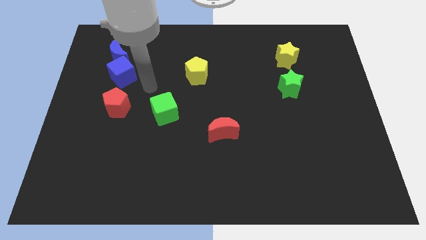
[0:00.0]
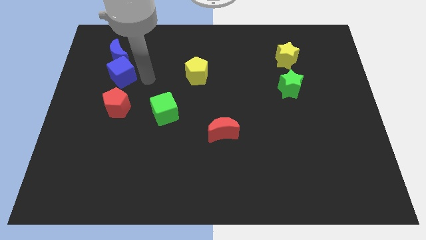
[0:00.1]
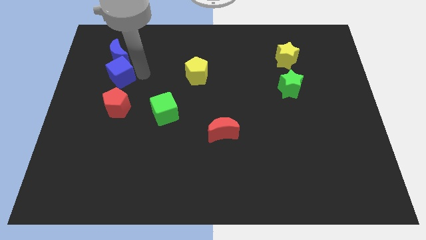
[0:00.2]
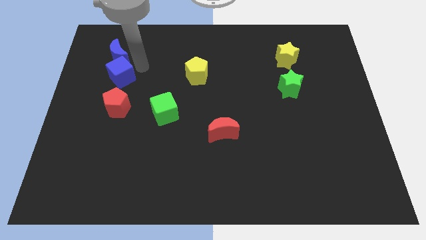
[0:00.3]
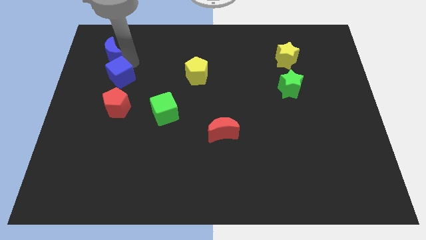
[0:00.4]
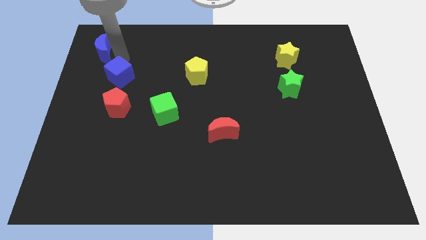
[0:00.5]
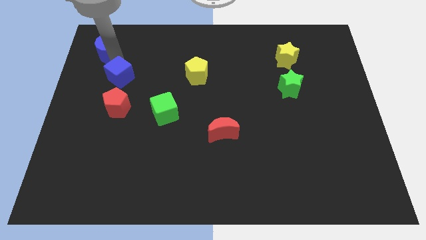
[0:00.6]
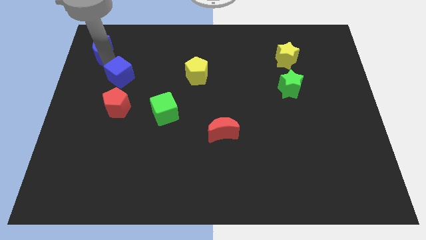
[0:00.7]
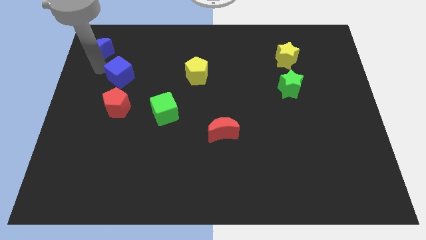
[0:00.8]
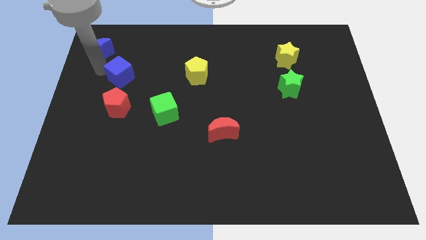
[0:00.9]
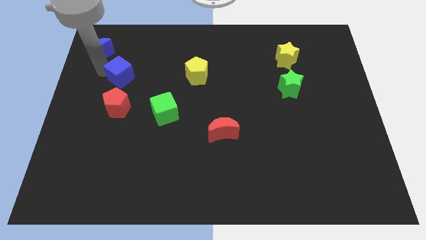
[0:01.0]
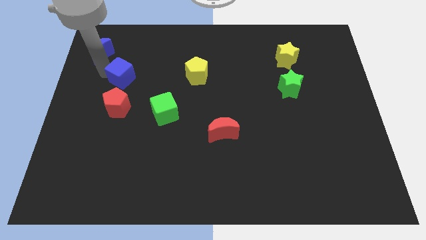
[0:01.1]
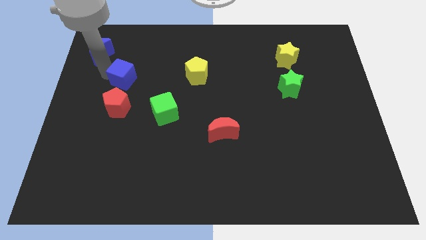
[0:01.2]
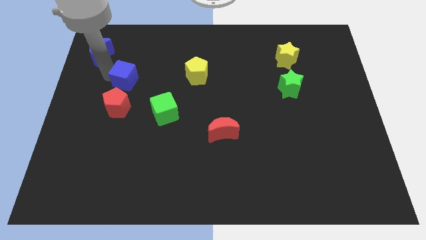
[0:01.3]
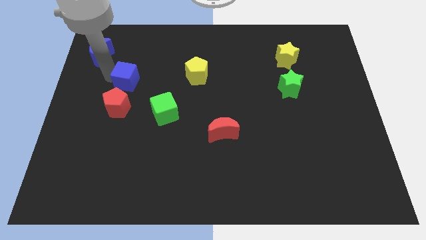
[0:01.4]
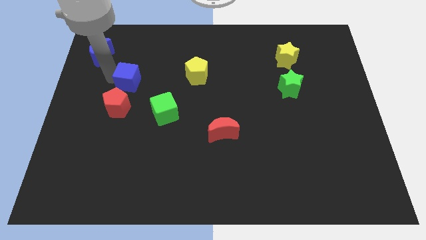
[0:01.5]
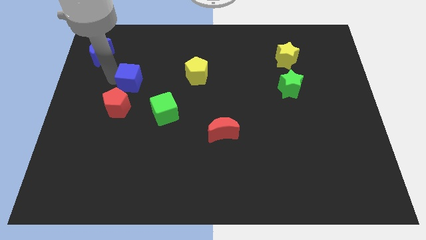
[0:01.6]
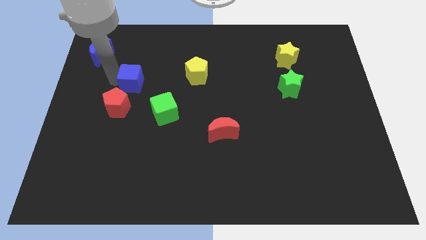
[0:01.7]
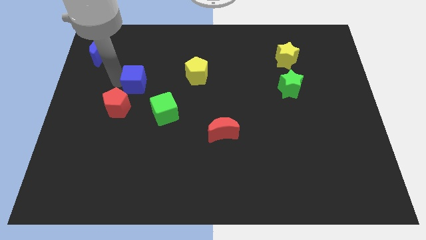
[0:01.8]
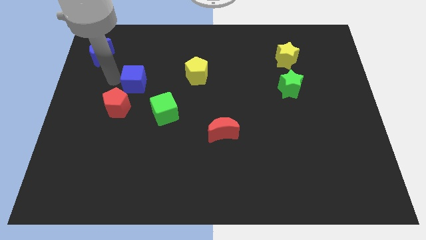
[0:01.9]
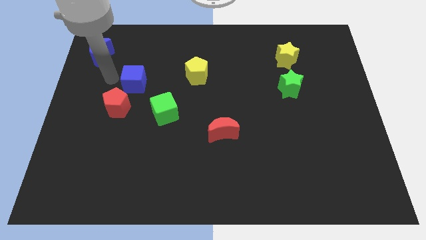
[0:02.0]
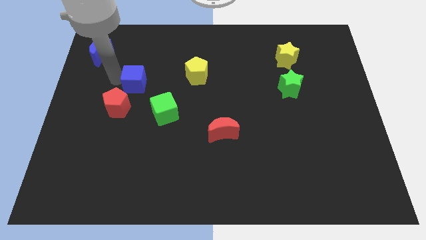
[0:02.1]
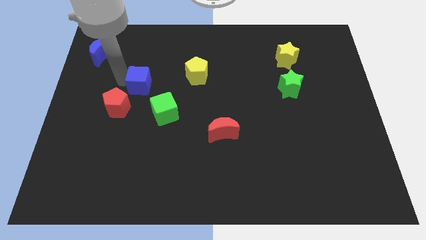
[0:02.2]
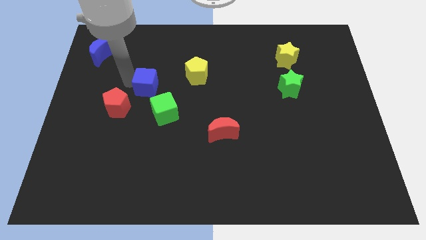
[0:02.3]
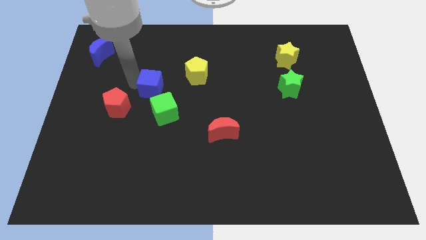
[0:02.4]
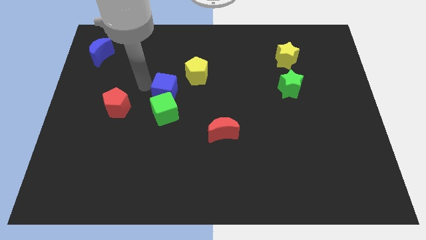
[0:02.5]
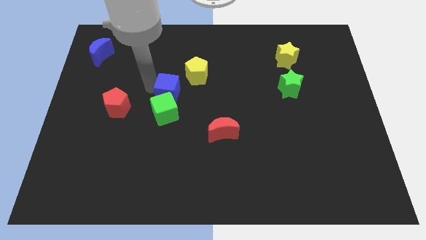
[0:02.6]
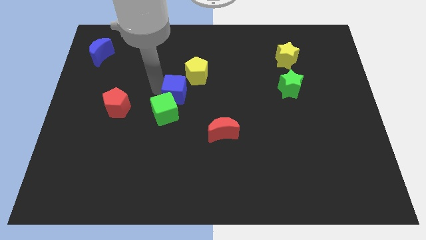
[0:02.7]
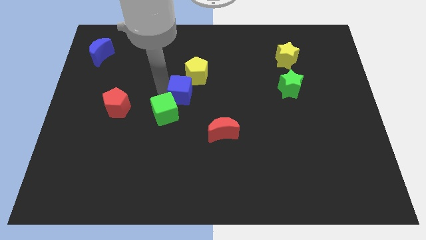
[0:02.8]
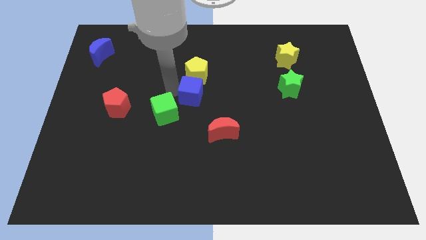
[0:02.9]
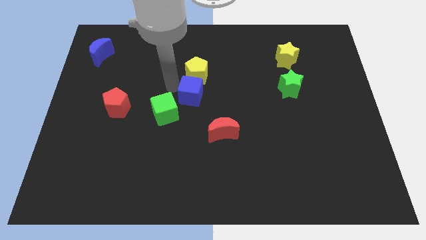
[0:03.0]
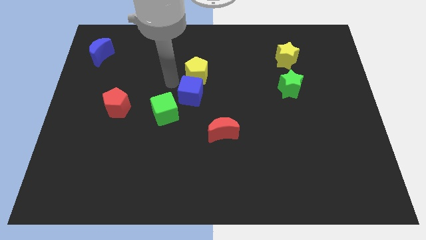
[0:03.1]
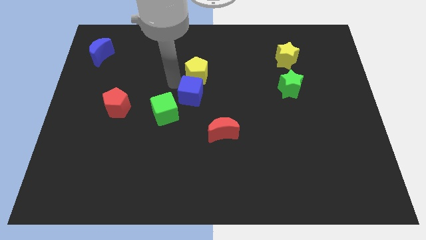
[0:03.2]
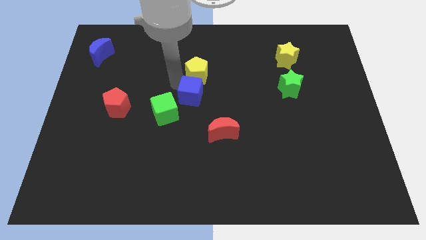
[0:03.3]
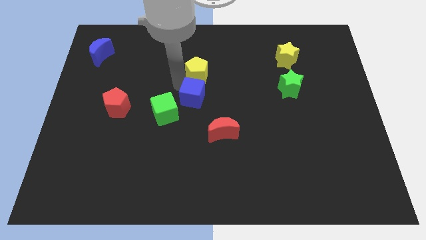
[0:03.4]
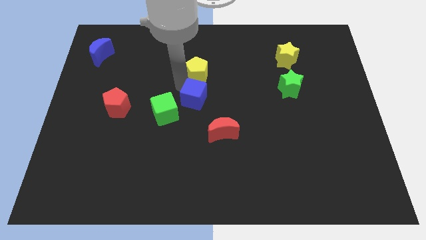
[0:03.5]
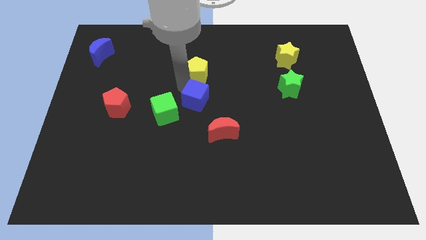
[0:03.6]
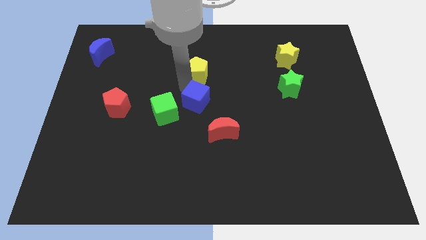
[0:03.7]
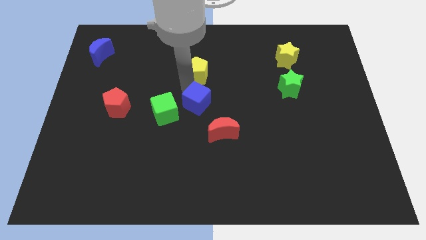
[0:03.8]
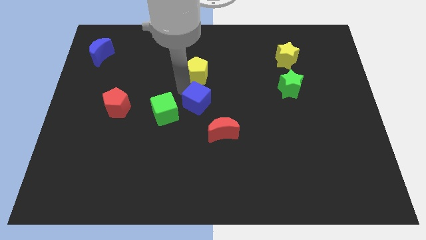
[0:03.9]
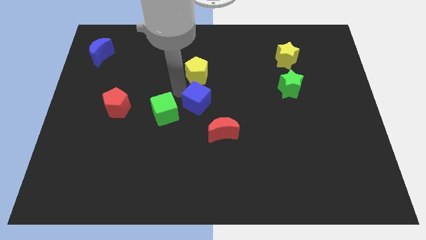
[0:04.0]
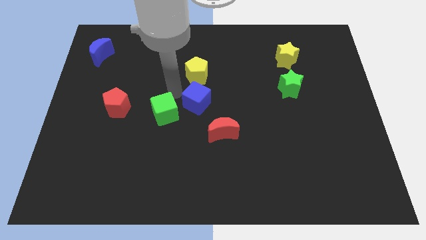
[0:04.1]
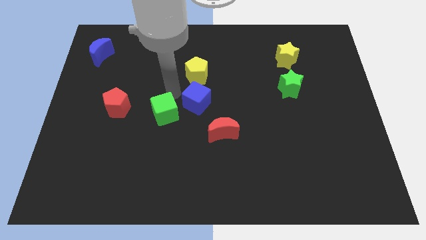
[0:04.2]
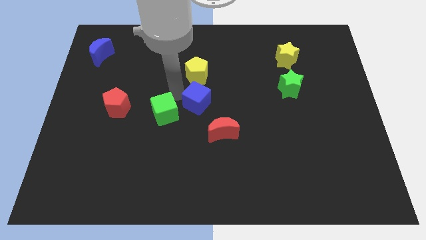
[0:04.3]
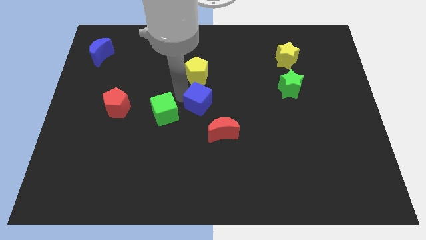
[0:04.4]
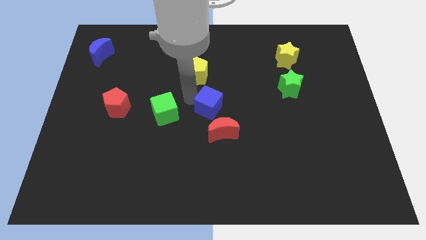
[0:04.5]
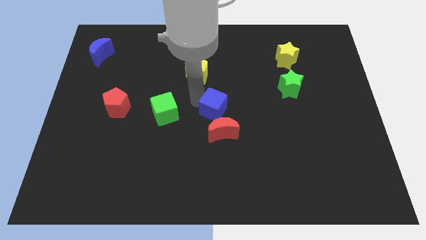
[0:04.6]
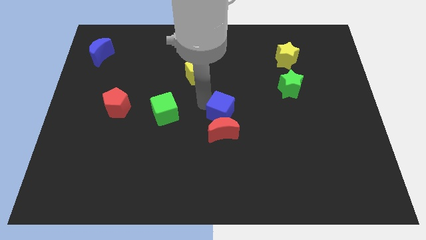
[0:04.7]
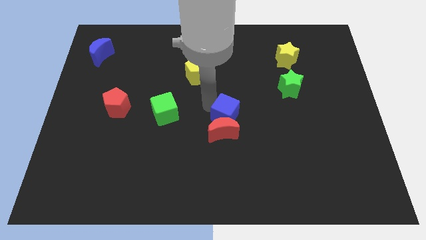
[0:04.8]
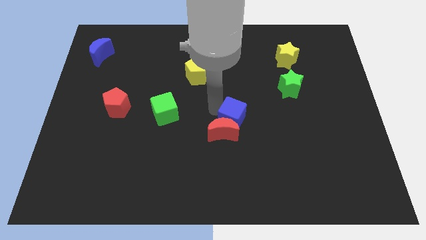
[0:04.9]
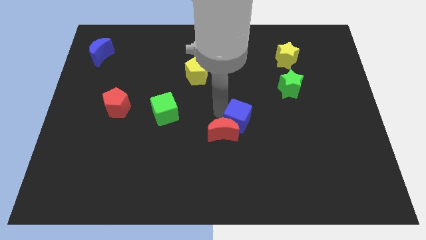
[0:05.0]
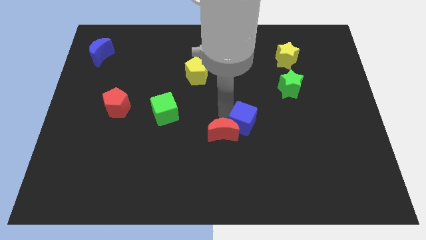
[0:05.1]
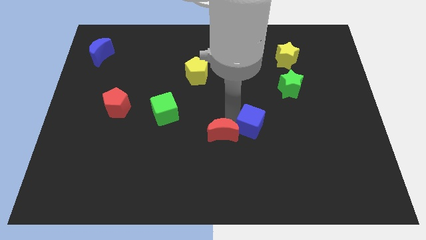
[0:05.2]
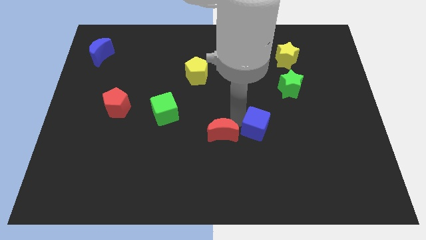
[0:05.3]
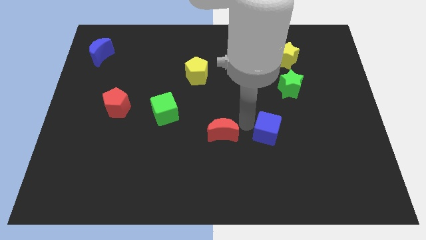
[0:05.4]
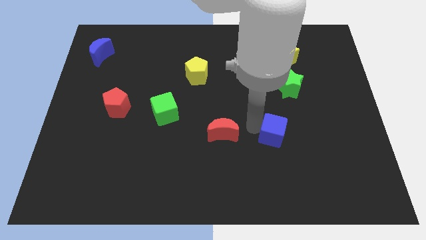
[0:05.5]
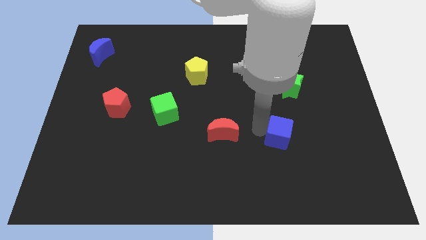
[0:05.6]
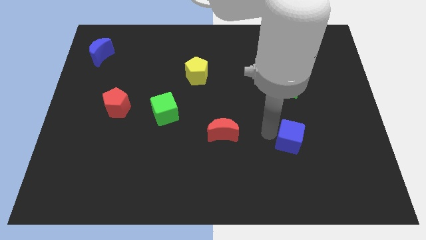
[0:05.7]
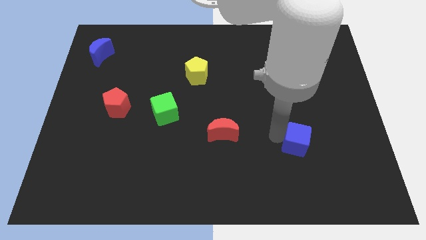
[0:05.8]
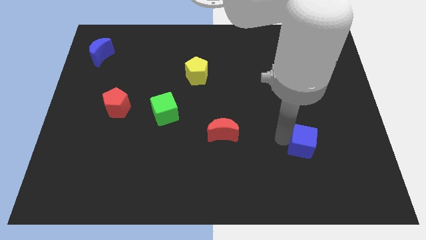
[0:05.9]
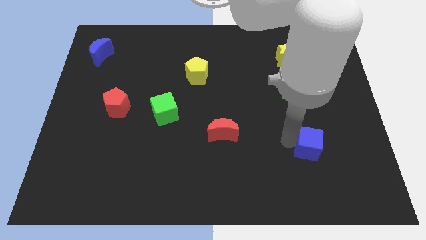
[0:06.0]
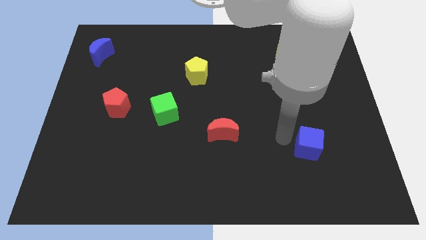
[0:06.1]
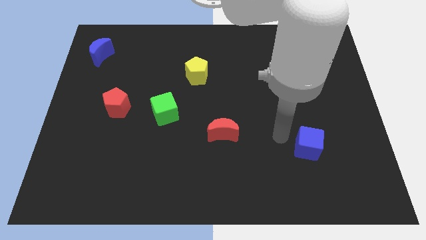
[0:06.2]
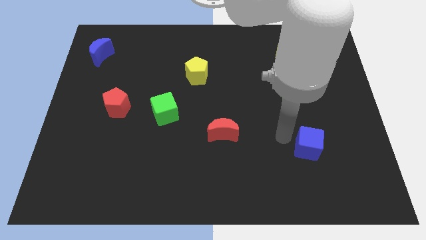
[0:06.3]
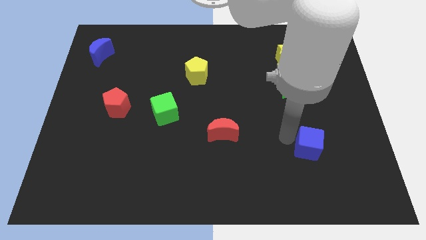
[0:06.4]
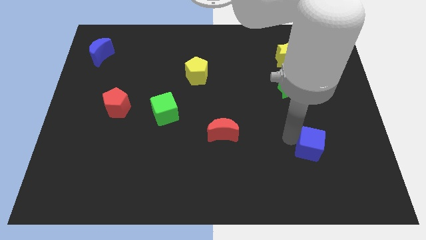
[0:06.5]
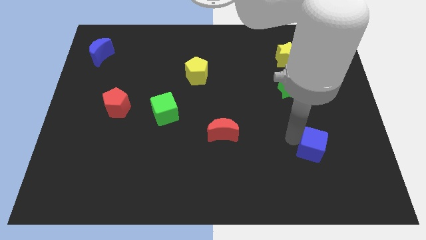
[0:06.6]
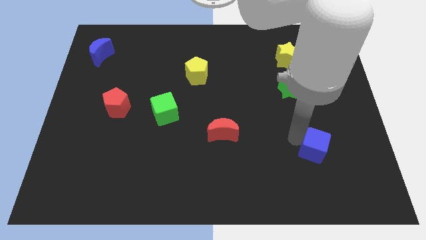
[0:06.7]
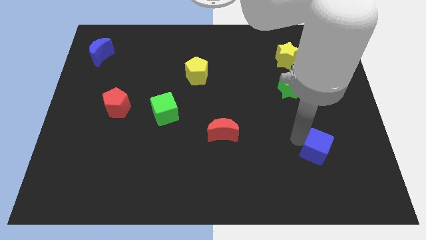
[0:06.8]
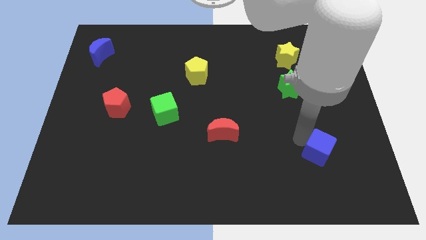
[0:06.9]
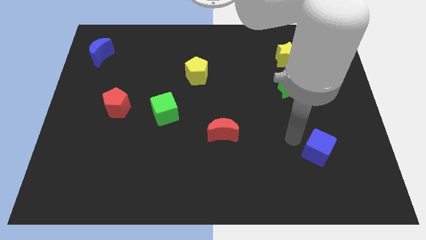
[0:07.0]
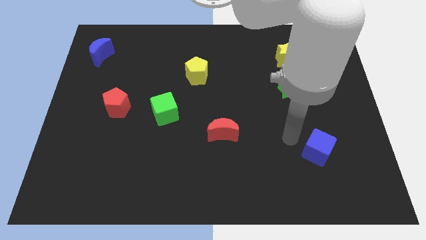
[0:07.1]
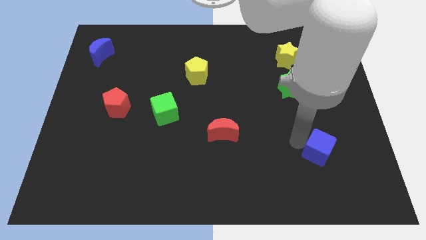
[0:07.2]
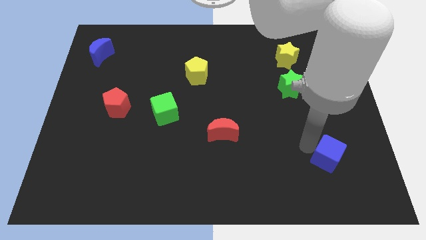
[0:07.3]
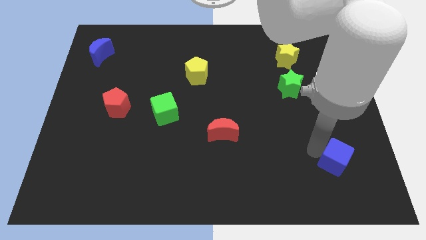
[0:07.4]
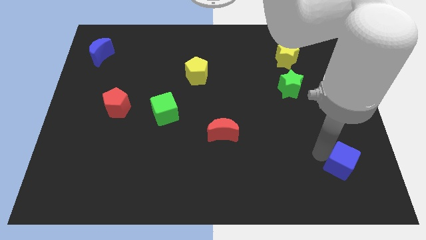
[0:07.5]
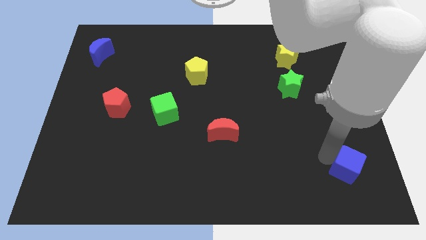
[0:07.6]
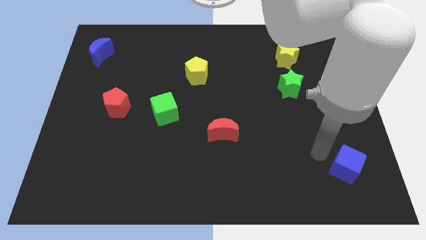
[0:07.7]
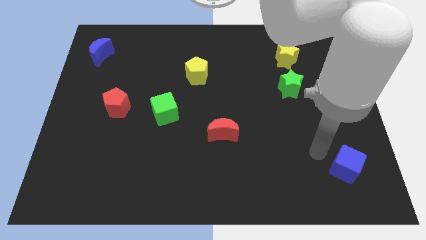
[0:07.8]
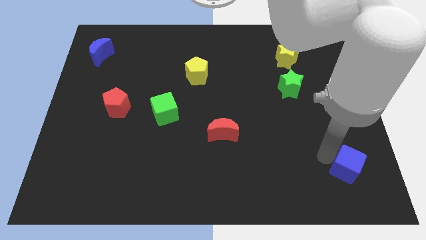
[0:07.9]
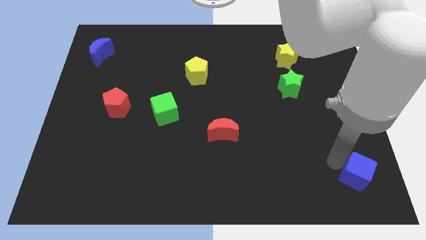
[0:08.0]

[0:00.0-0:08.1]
slide the blue cube to the bottom right
